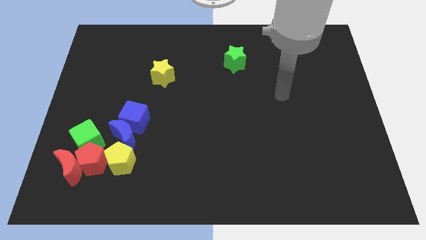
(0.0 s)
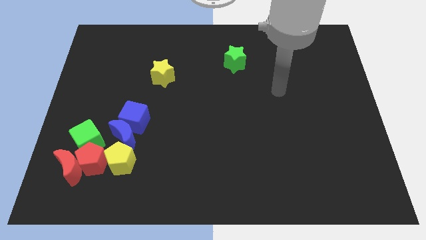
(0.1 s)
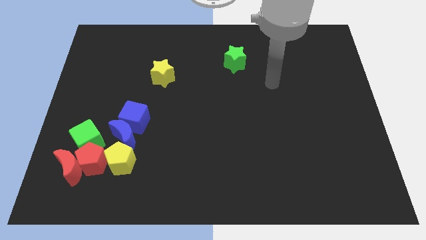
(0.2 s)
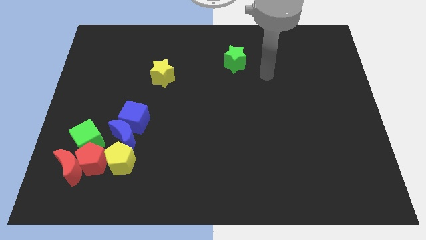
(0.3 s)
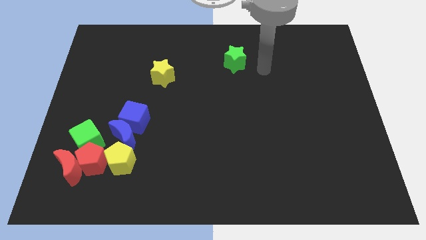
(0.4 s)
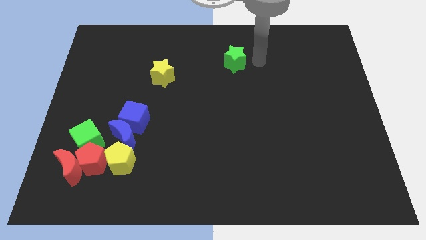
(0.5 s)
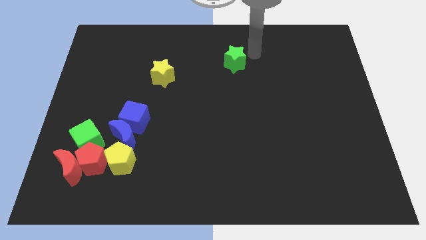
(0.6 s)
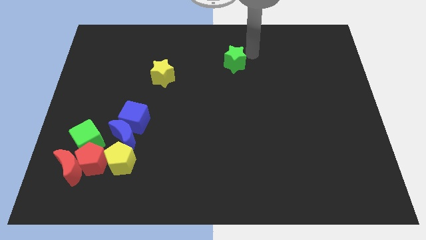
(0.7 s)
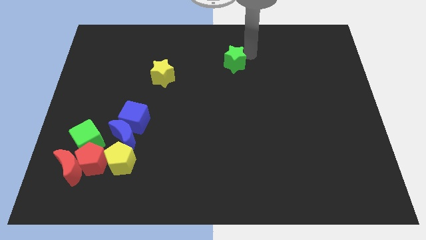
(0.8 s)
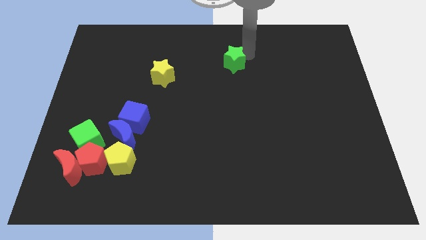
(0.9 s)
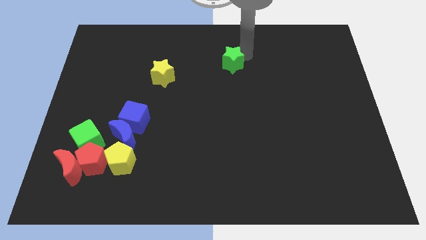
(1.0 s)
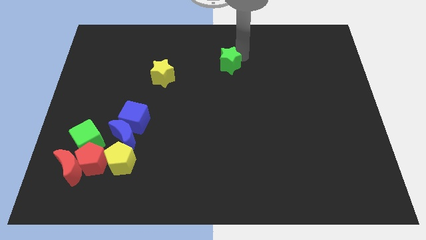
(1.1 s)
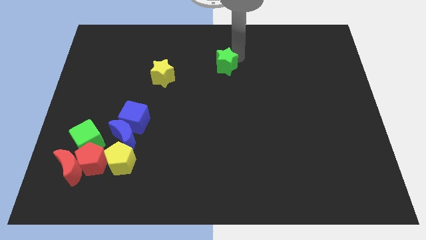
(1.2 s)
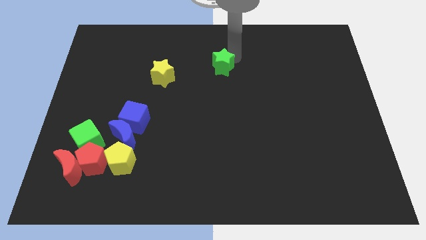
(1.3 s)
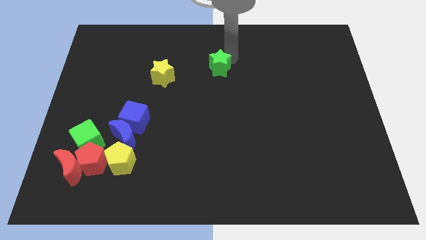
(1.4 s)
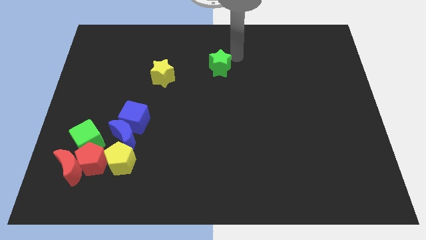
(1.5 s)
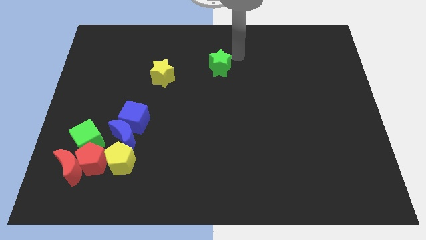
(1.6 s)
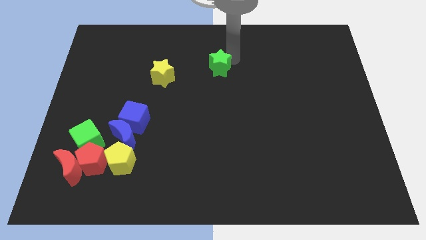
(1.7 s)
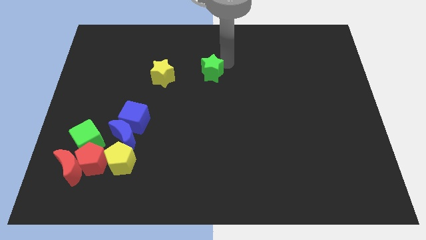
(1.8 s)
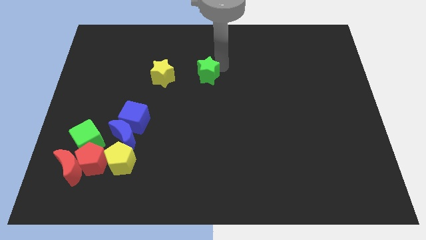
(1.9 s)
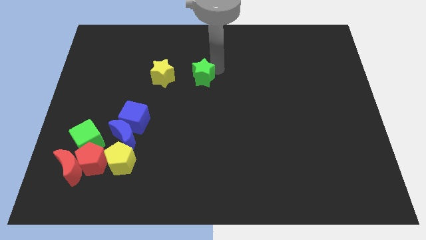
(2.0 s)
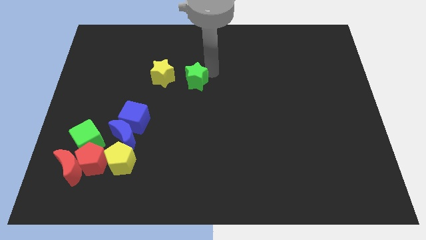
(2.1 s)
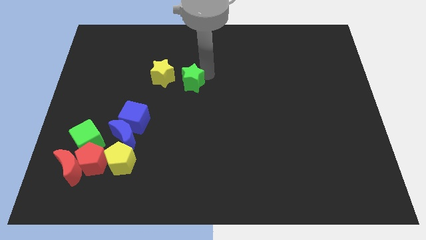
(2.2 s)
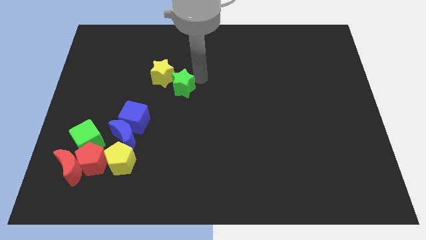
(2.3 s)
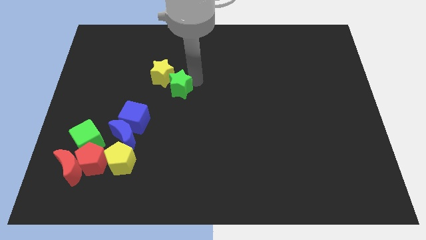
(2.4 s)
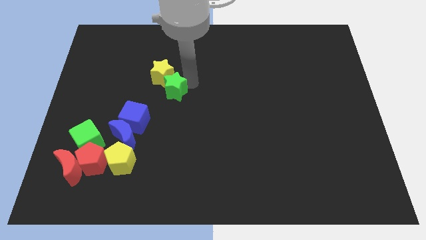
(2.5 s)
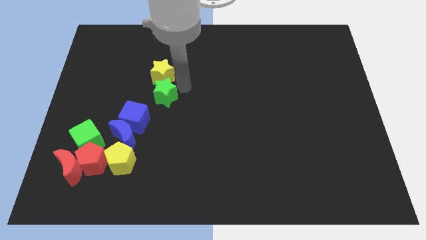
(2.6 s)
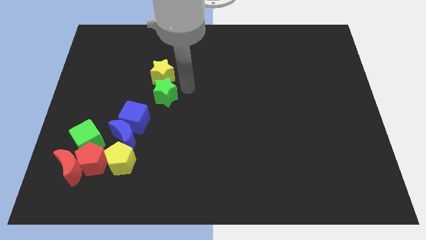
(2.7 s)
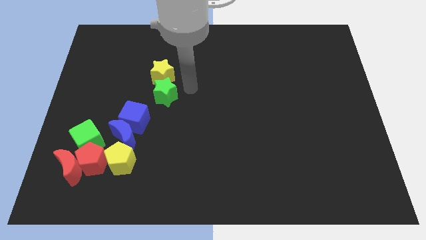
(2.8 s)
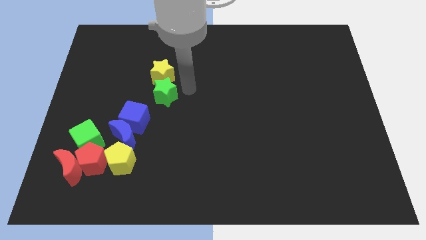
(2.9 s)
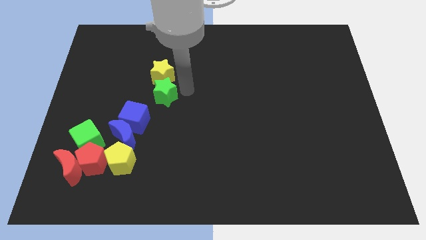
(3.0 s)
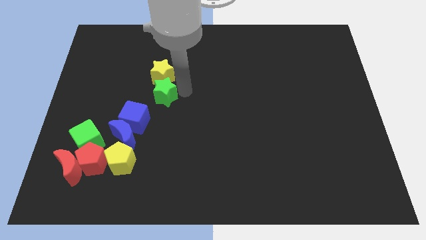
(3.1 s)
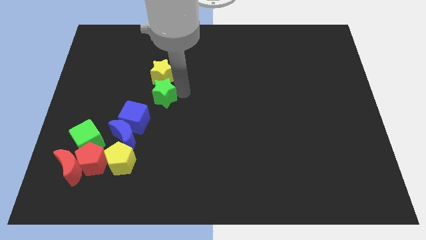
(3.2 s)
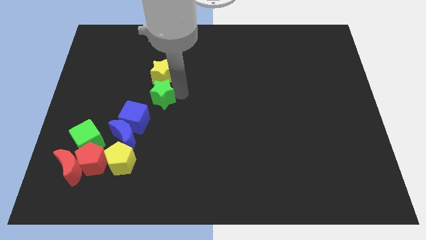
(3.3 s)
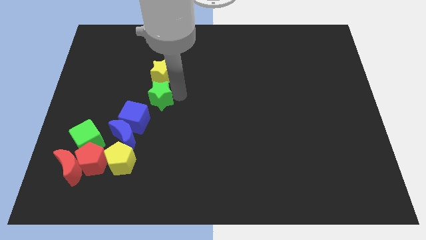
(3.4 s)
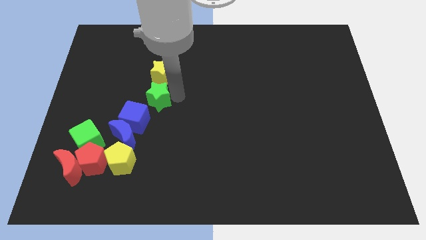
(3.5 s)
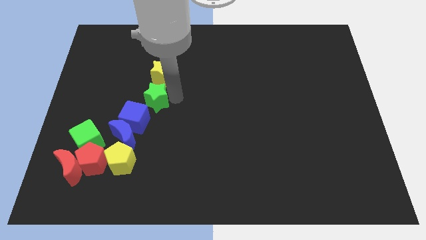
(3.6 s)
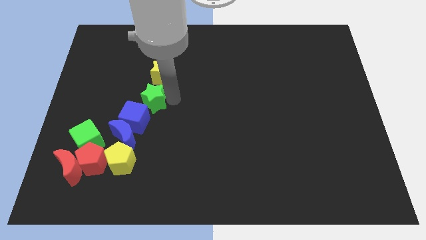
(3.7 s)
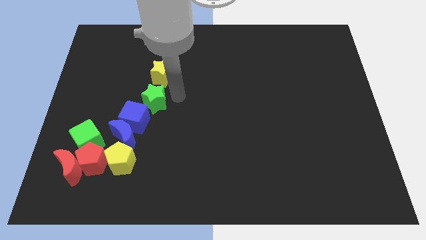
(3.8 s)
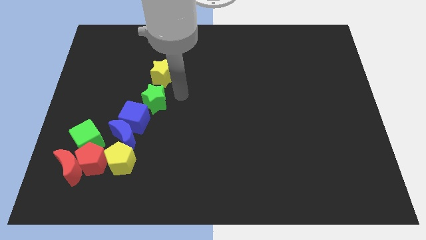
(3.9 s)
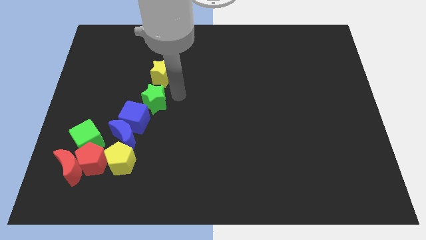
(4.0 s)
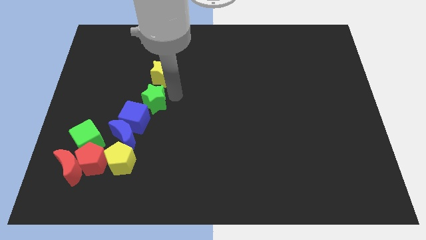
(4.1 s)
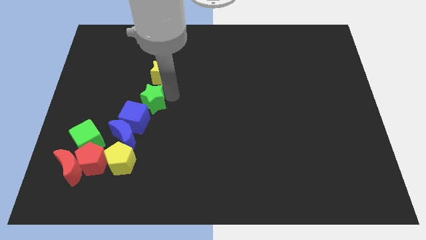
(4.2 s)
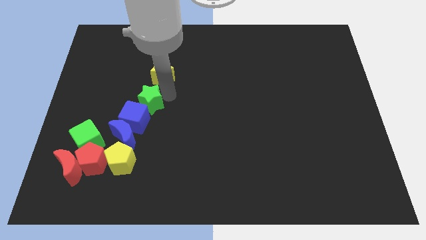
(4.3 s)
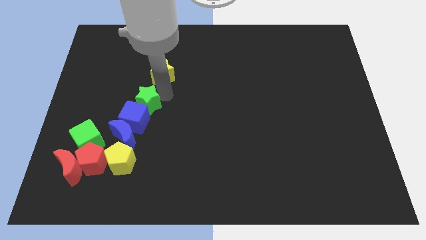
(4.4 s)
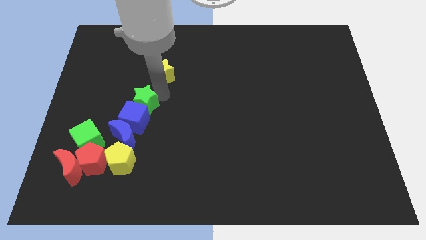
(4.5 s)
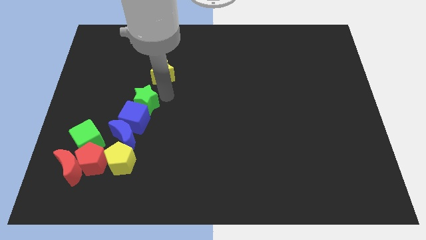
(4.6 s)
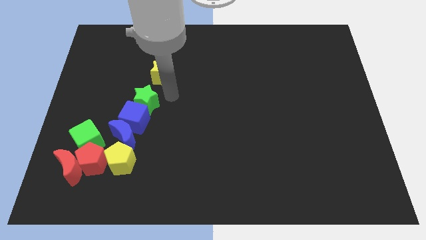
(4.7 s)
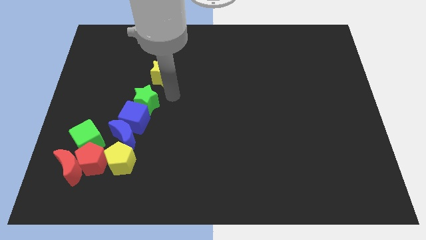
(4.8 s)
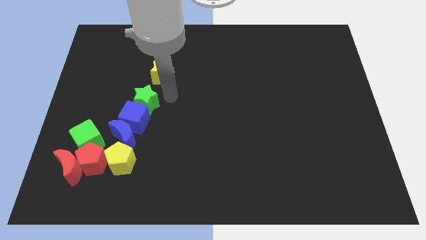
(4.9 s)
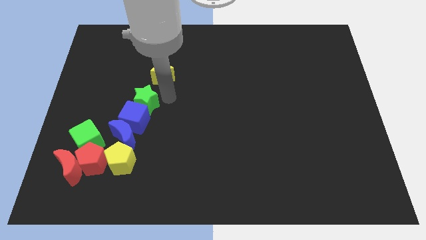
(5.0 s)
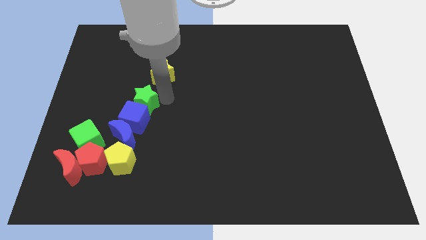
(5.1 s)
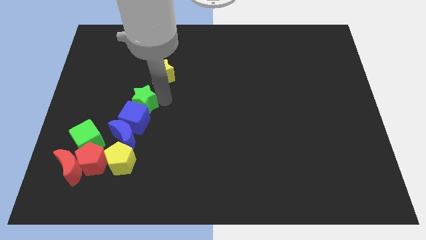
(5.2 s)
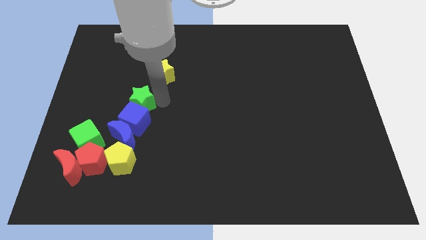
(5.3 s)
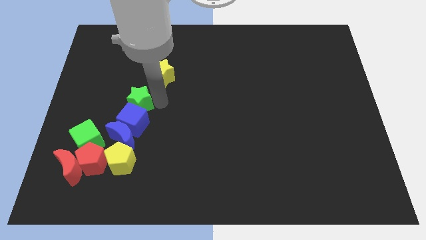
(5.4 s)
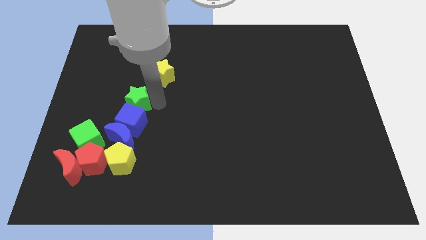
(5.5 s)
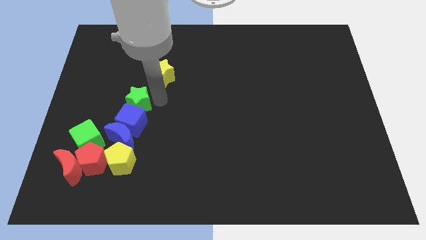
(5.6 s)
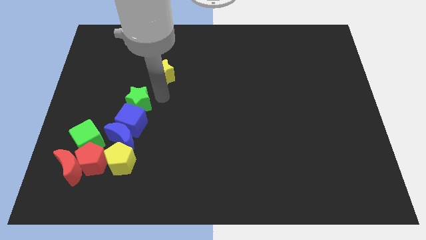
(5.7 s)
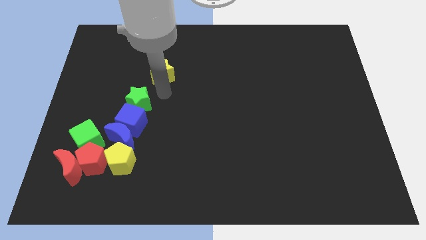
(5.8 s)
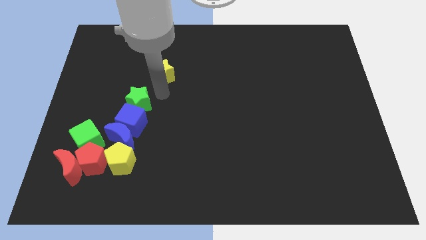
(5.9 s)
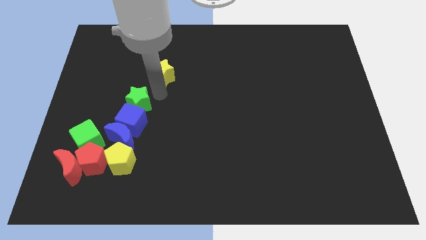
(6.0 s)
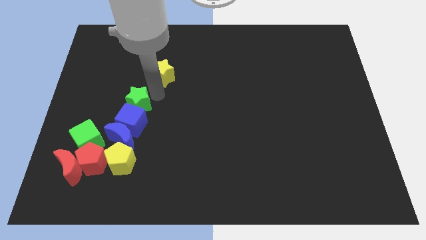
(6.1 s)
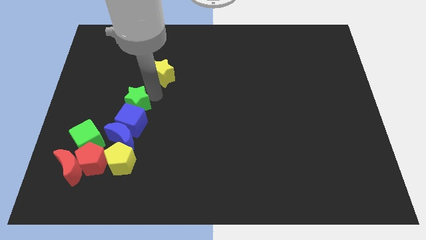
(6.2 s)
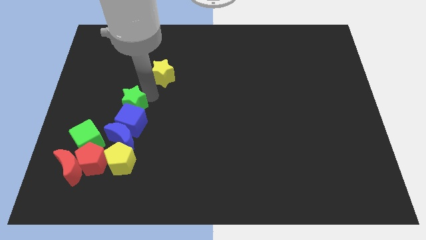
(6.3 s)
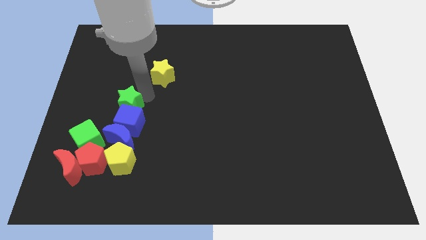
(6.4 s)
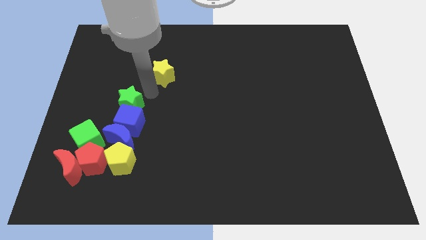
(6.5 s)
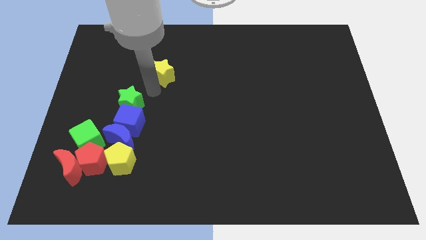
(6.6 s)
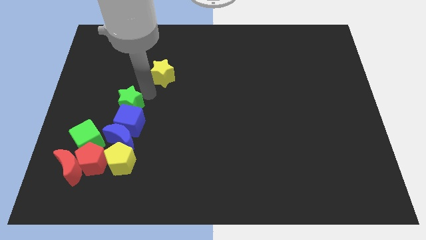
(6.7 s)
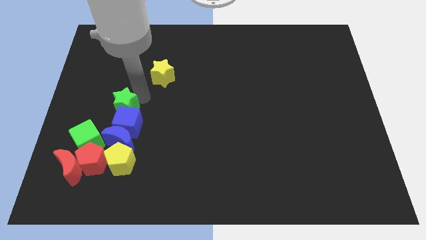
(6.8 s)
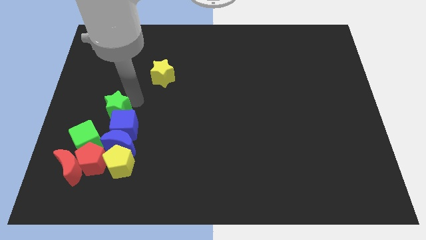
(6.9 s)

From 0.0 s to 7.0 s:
push the green star to the top of the red pentagon

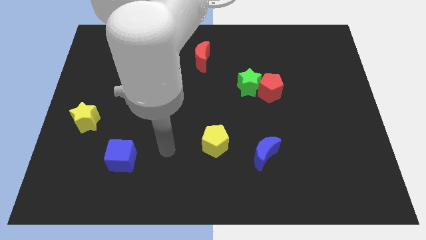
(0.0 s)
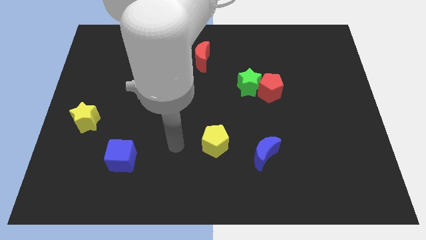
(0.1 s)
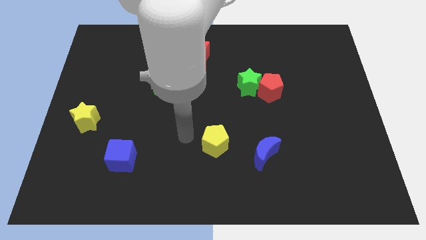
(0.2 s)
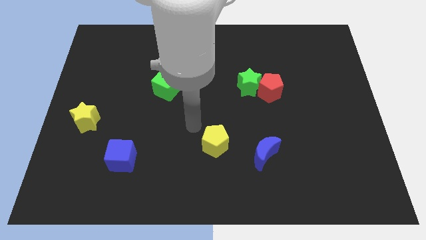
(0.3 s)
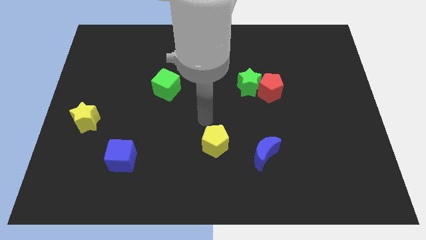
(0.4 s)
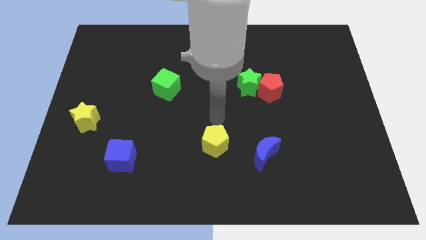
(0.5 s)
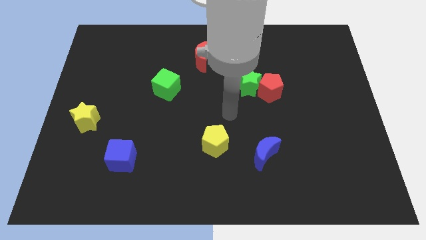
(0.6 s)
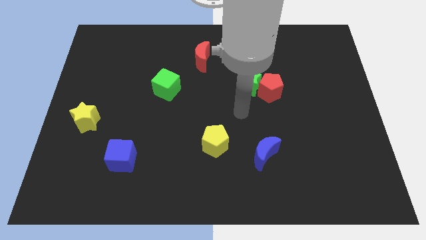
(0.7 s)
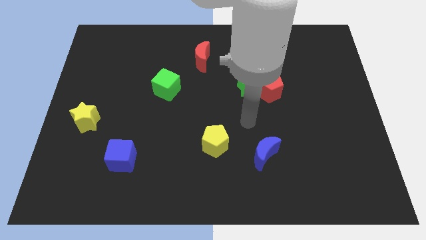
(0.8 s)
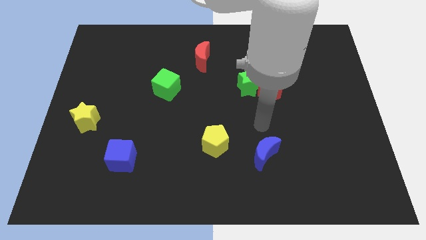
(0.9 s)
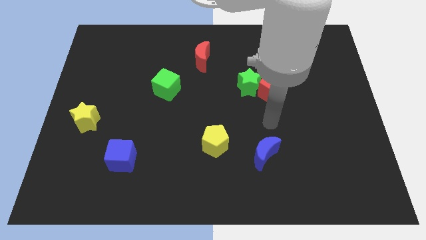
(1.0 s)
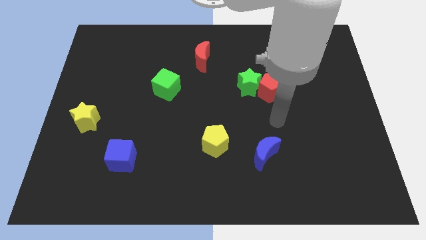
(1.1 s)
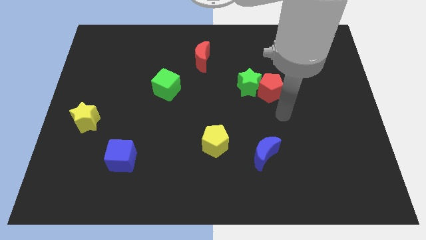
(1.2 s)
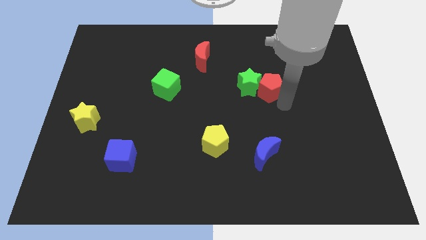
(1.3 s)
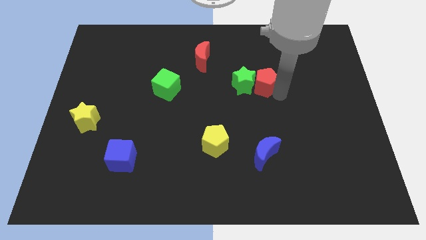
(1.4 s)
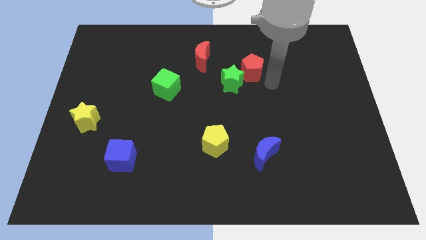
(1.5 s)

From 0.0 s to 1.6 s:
move the green star just right of the green cube
